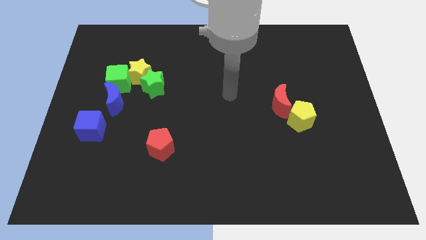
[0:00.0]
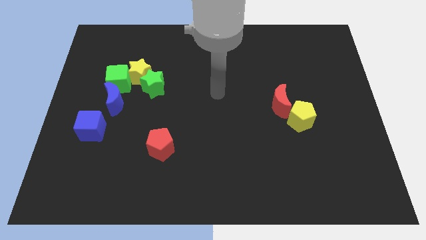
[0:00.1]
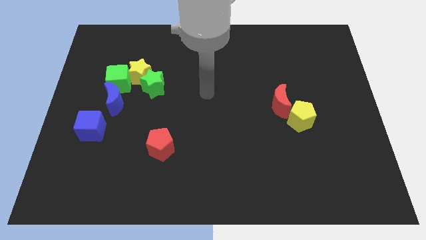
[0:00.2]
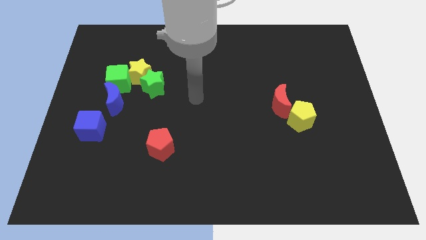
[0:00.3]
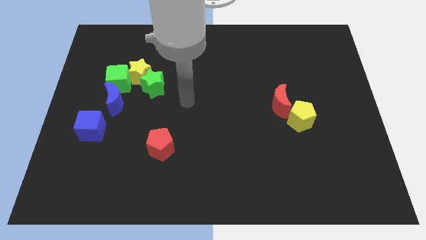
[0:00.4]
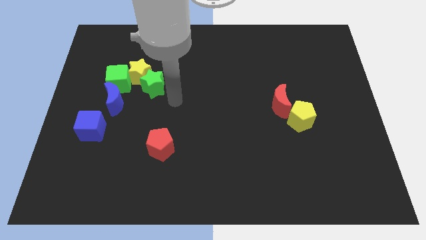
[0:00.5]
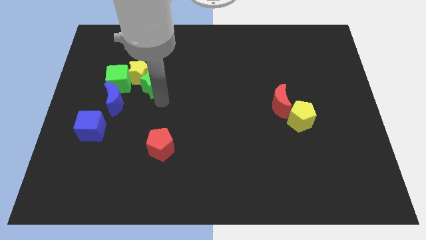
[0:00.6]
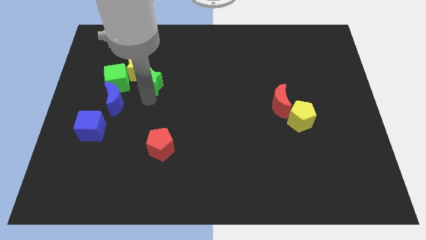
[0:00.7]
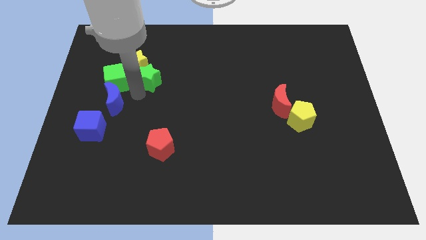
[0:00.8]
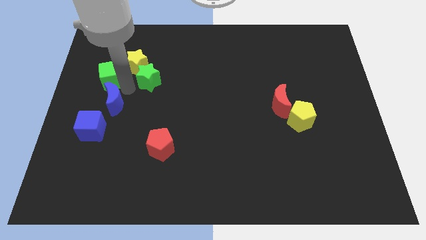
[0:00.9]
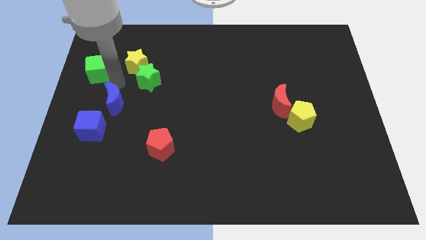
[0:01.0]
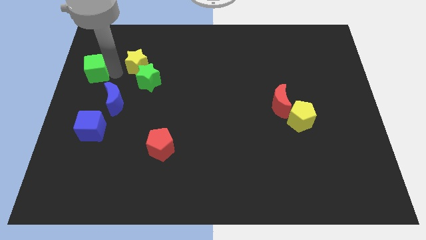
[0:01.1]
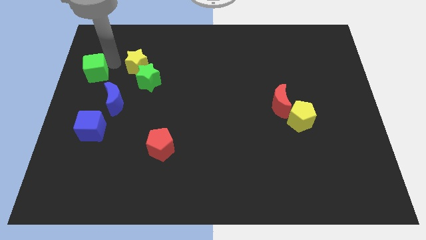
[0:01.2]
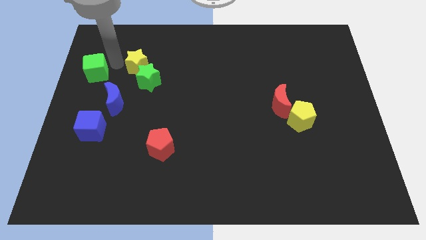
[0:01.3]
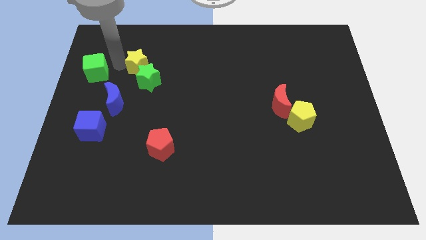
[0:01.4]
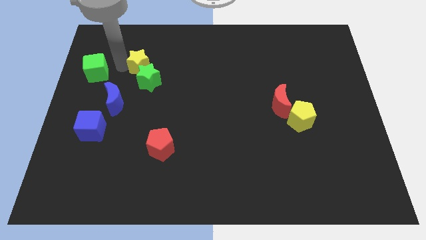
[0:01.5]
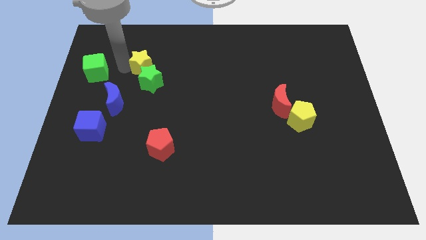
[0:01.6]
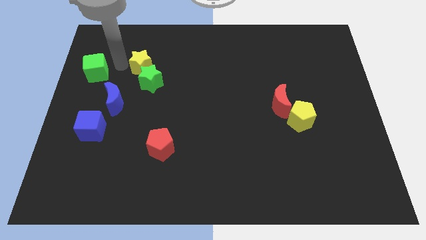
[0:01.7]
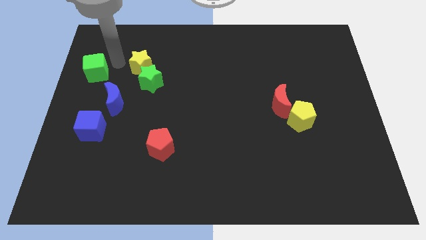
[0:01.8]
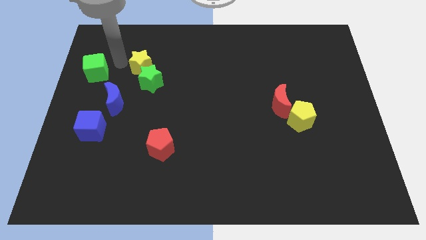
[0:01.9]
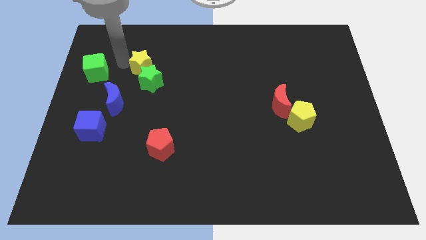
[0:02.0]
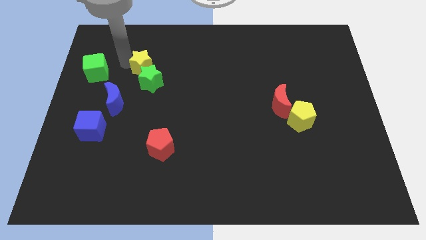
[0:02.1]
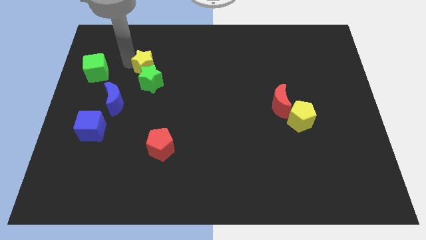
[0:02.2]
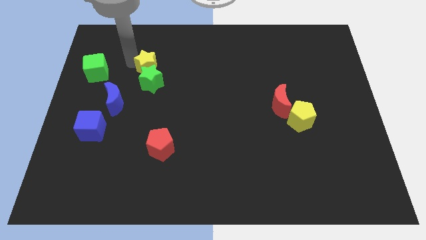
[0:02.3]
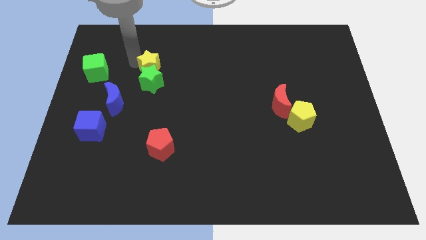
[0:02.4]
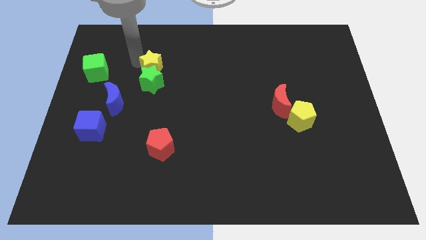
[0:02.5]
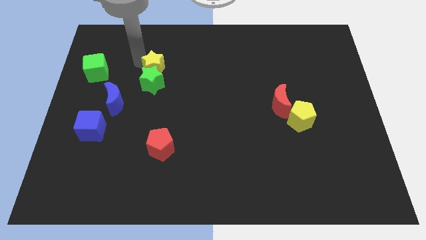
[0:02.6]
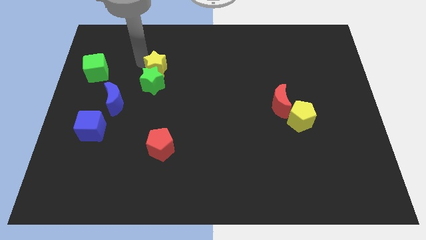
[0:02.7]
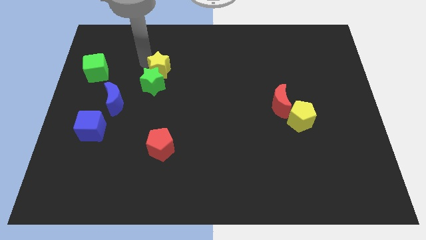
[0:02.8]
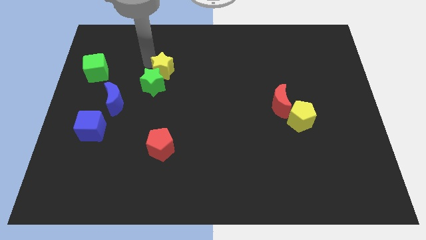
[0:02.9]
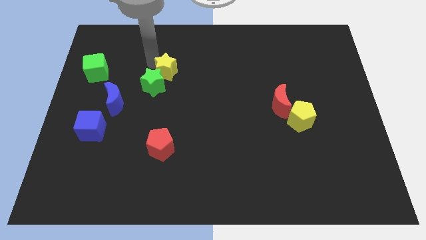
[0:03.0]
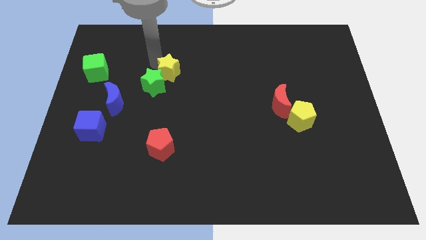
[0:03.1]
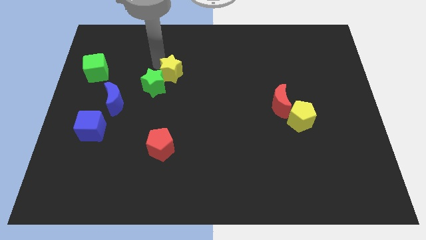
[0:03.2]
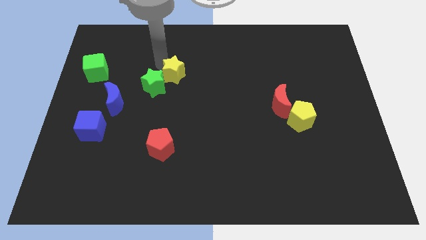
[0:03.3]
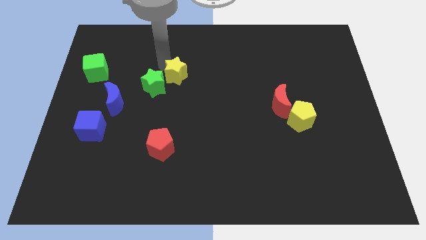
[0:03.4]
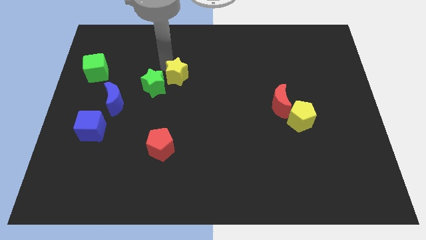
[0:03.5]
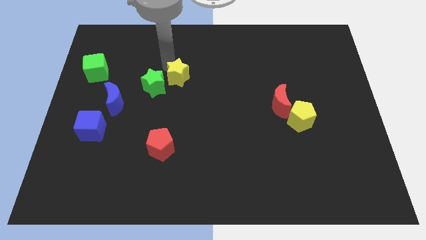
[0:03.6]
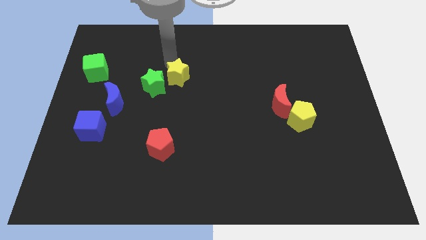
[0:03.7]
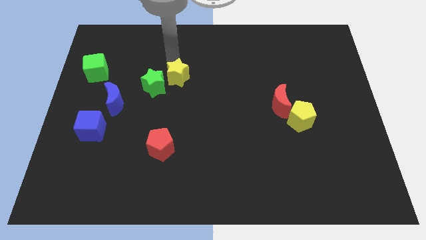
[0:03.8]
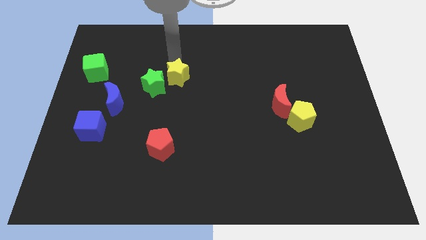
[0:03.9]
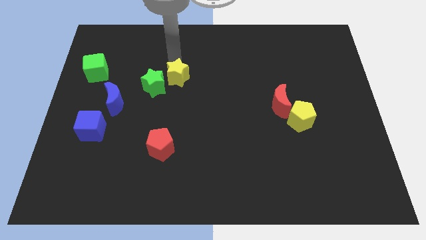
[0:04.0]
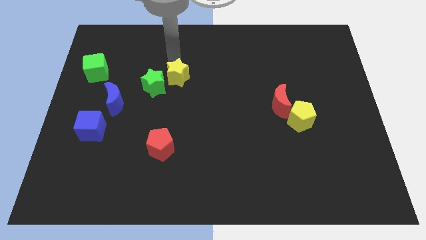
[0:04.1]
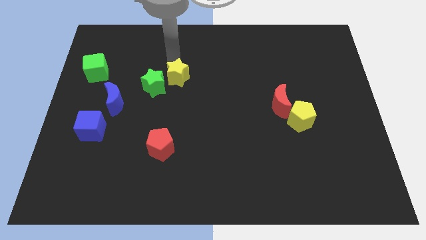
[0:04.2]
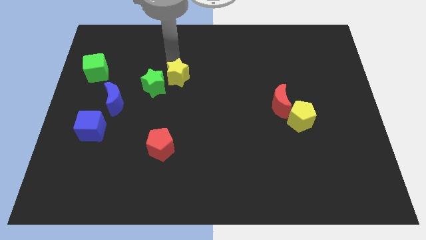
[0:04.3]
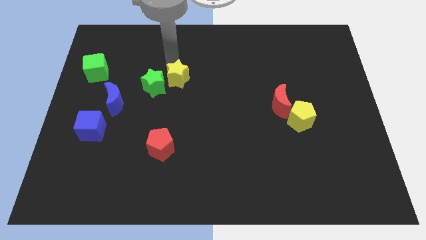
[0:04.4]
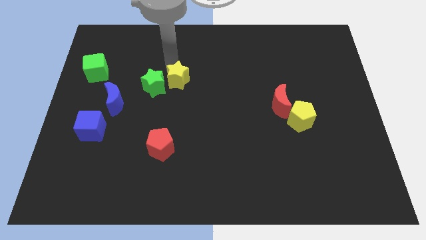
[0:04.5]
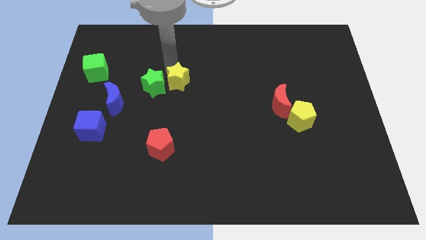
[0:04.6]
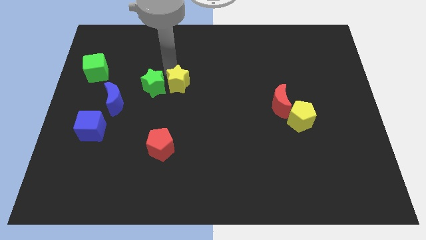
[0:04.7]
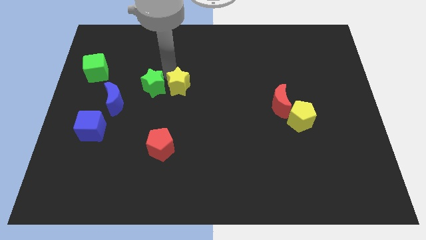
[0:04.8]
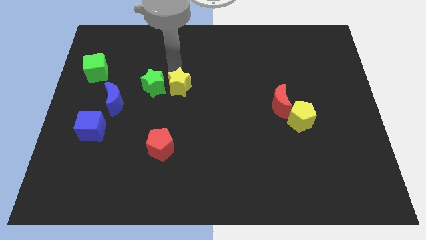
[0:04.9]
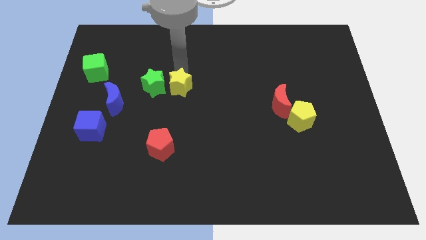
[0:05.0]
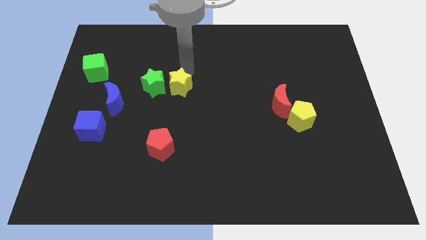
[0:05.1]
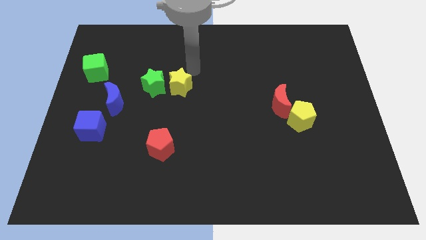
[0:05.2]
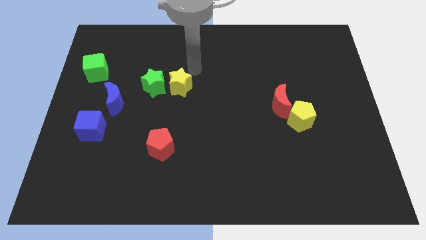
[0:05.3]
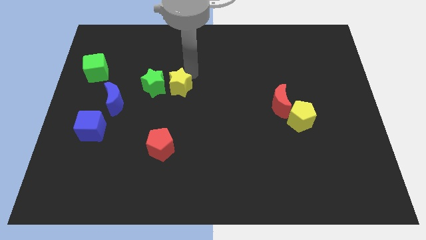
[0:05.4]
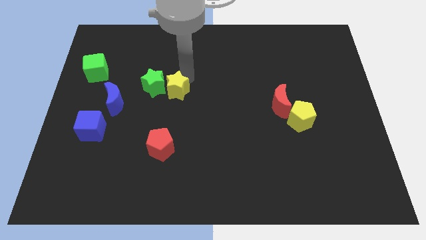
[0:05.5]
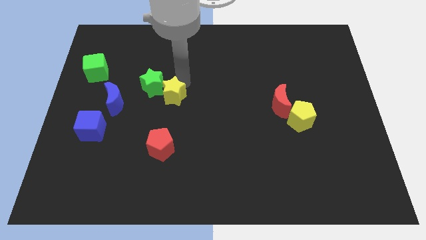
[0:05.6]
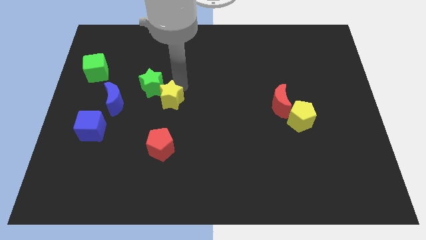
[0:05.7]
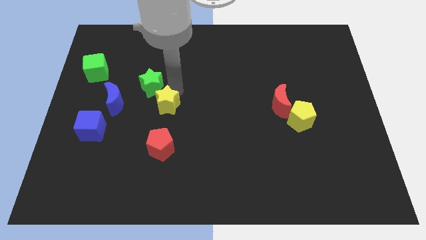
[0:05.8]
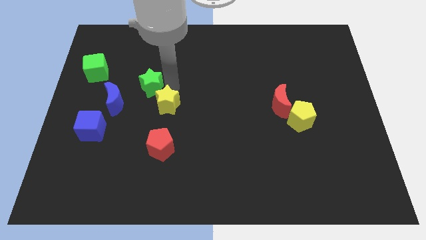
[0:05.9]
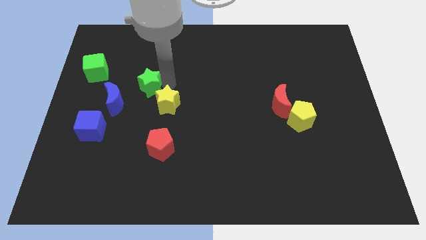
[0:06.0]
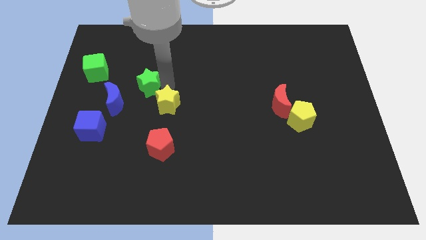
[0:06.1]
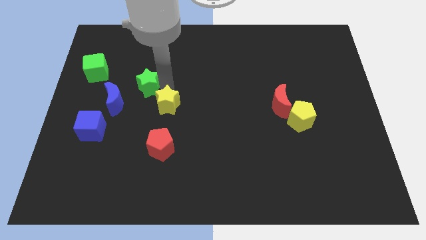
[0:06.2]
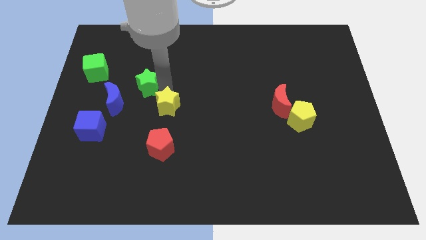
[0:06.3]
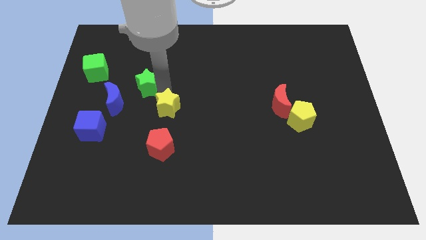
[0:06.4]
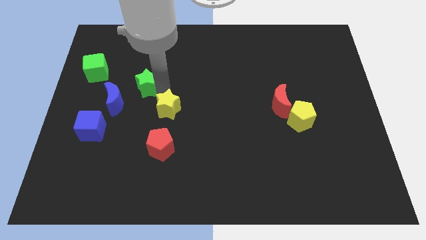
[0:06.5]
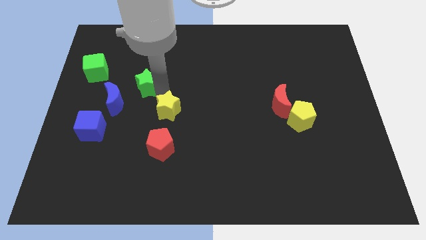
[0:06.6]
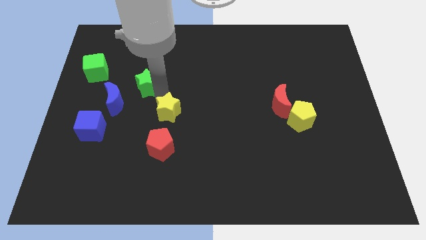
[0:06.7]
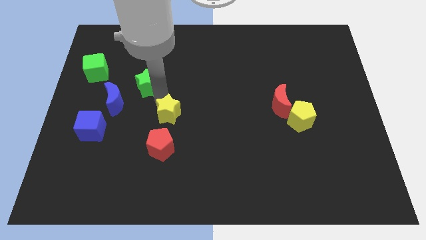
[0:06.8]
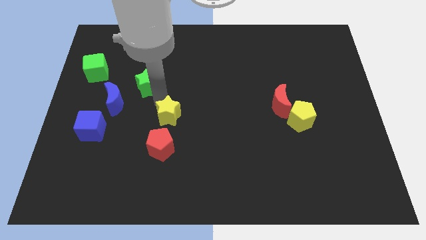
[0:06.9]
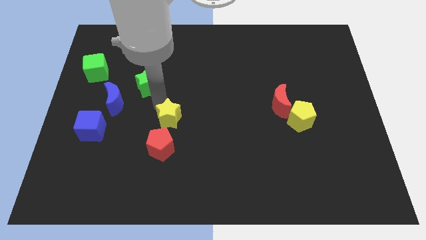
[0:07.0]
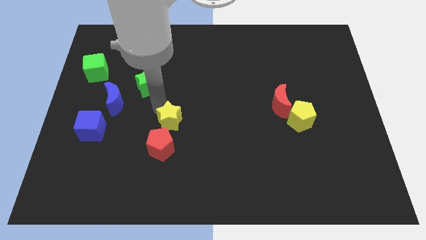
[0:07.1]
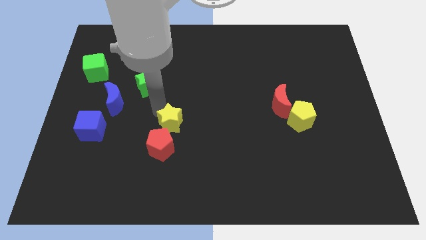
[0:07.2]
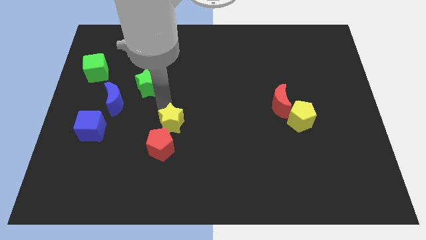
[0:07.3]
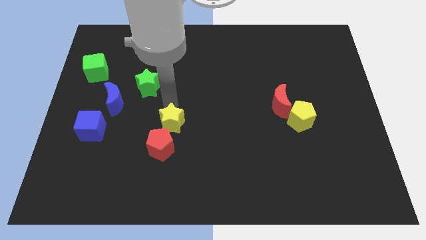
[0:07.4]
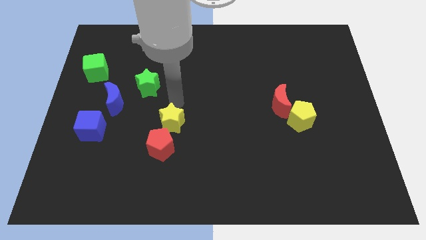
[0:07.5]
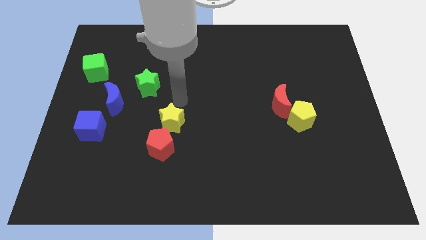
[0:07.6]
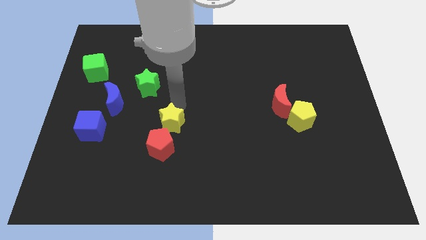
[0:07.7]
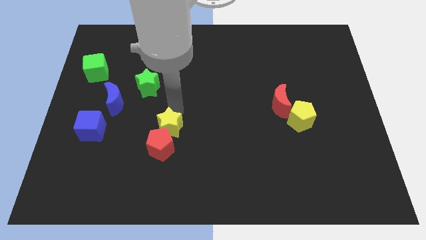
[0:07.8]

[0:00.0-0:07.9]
move the yellow star to the red pentagon
